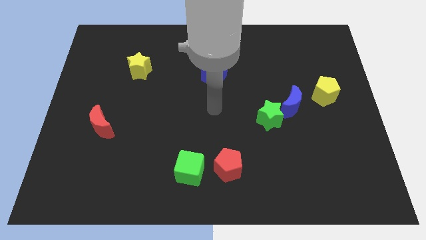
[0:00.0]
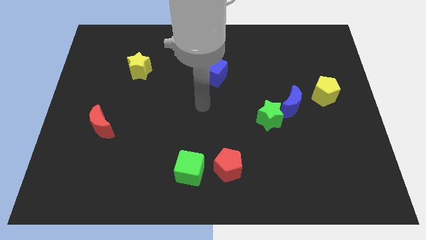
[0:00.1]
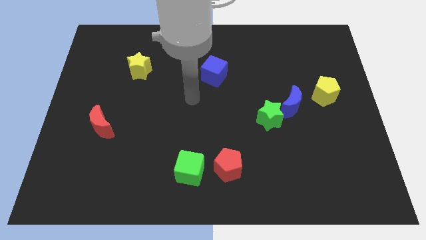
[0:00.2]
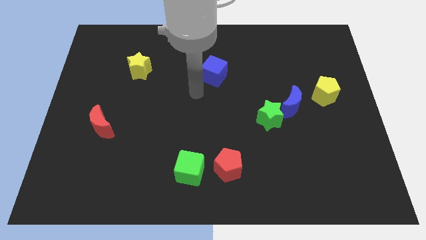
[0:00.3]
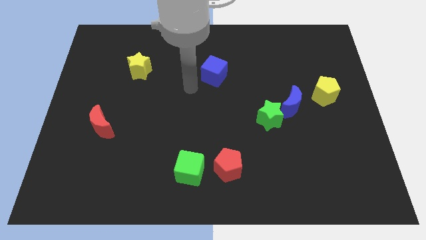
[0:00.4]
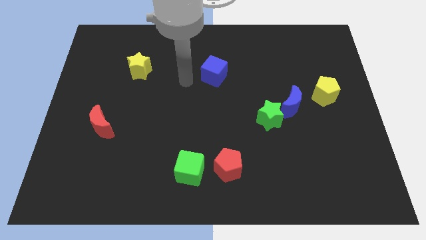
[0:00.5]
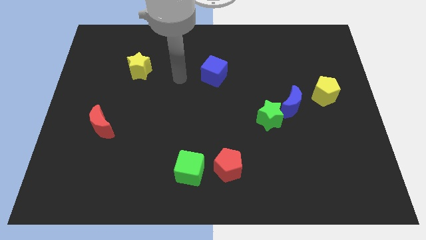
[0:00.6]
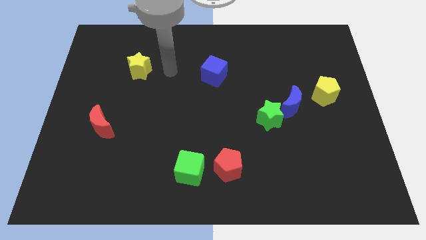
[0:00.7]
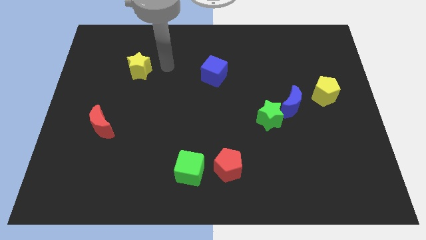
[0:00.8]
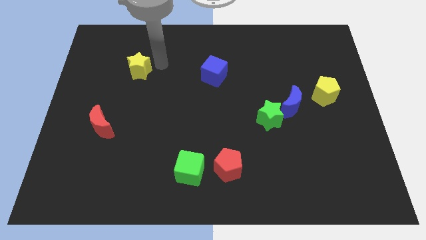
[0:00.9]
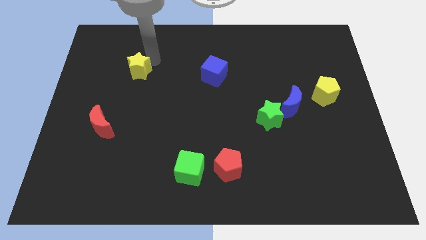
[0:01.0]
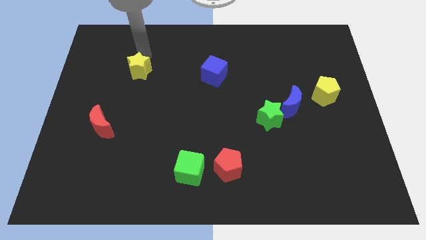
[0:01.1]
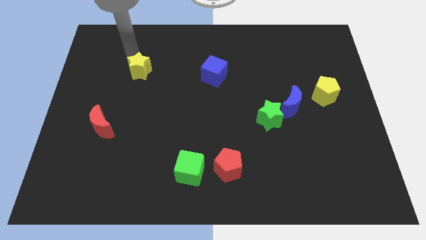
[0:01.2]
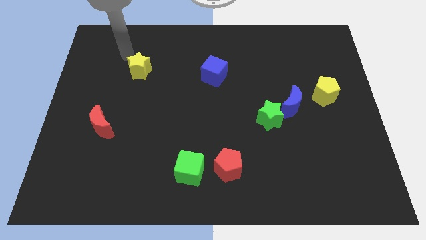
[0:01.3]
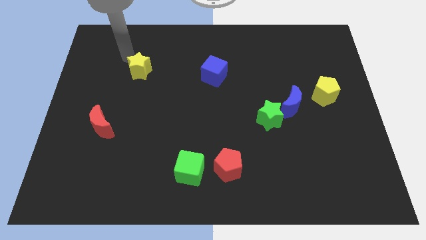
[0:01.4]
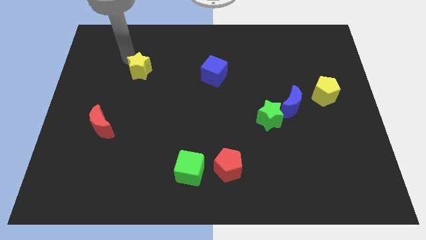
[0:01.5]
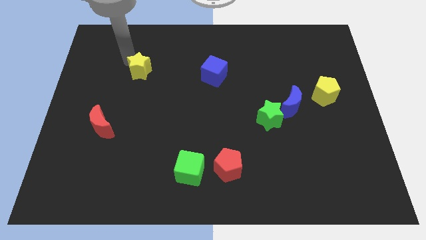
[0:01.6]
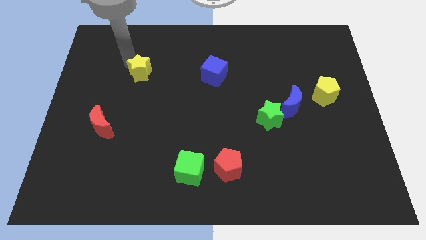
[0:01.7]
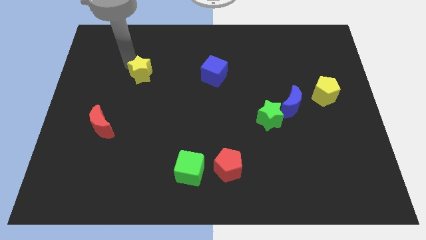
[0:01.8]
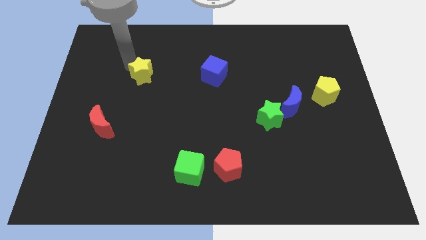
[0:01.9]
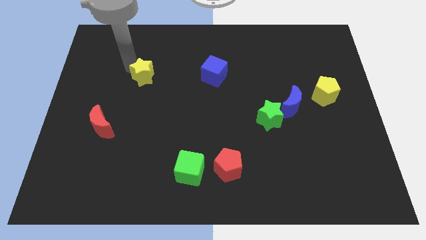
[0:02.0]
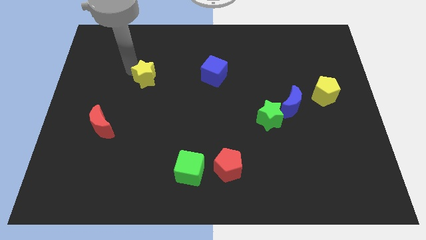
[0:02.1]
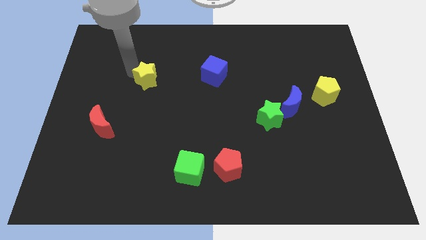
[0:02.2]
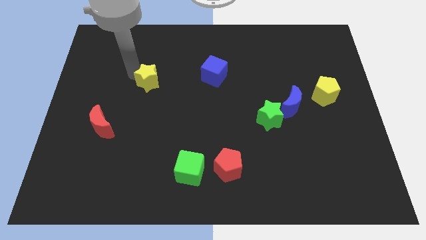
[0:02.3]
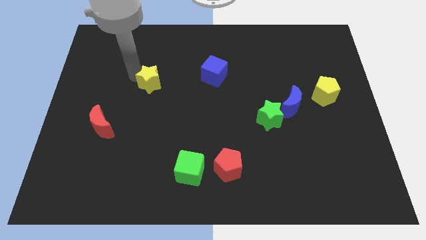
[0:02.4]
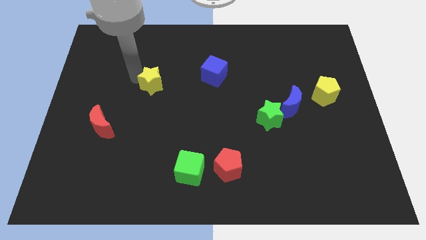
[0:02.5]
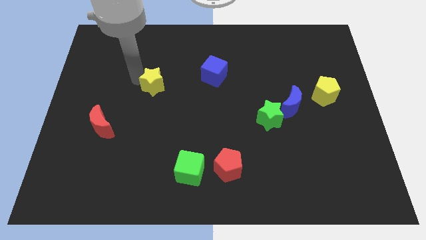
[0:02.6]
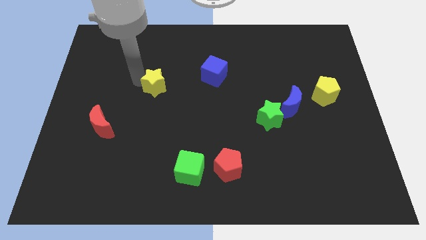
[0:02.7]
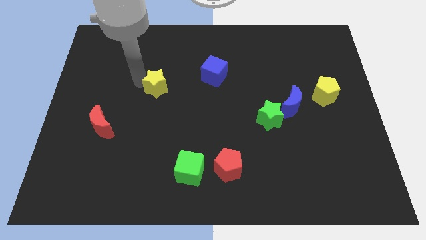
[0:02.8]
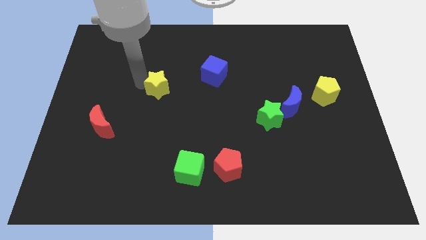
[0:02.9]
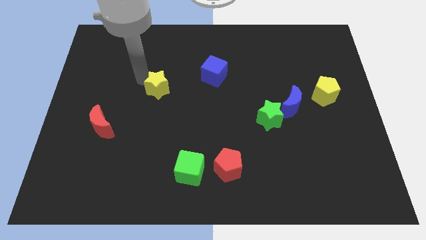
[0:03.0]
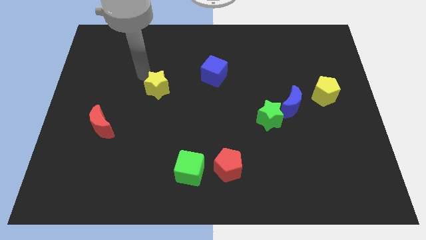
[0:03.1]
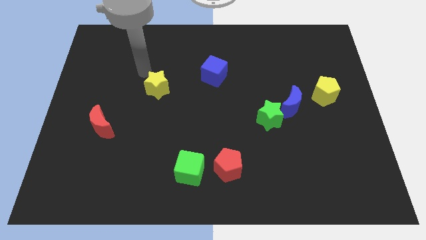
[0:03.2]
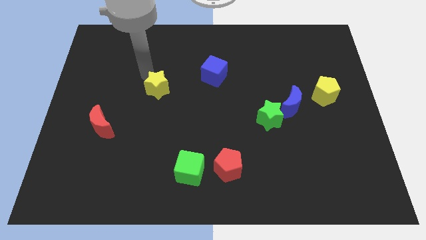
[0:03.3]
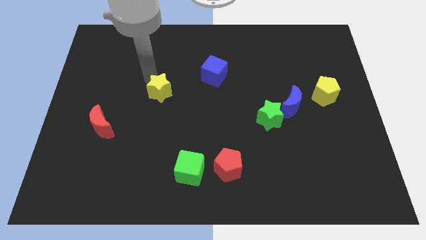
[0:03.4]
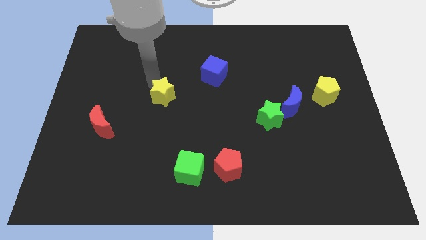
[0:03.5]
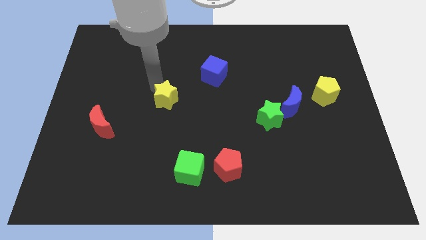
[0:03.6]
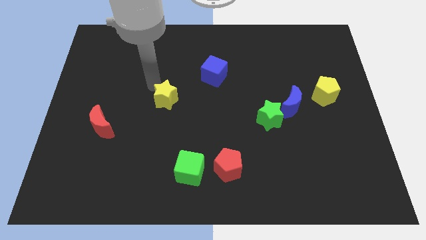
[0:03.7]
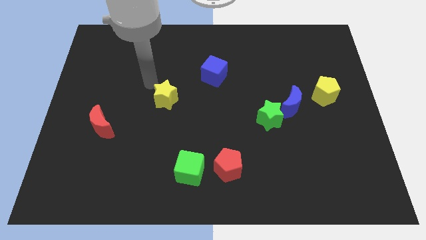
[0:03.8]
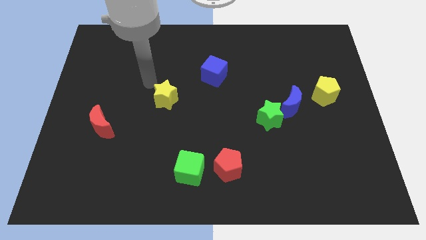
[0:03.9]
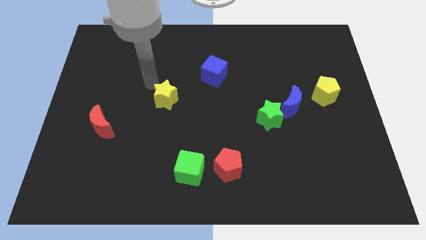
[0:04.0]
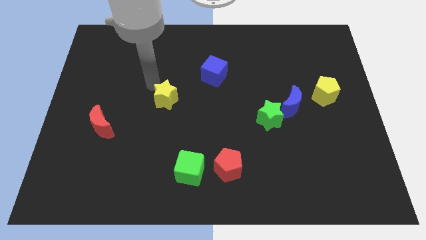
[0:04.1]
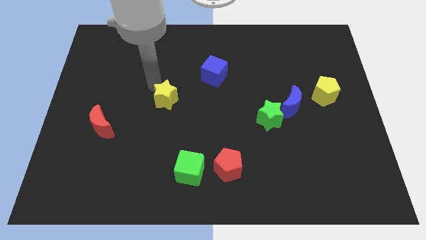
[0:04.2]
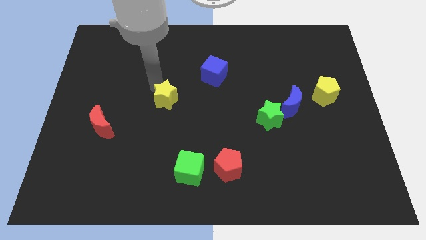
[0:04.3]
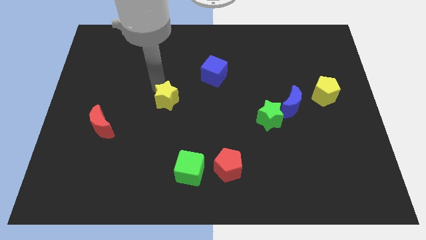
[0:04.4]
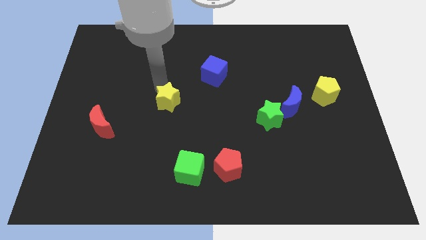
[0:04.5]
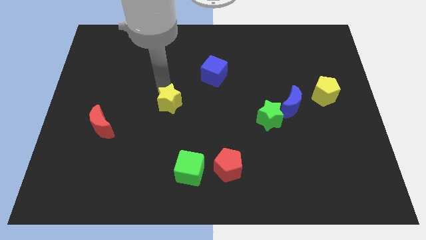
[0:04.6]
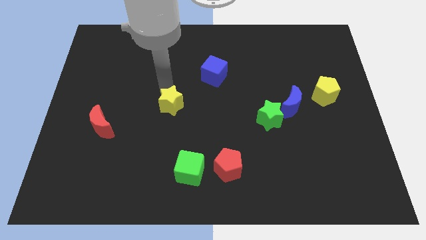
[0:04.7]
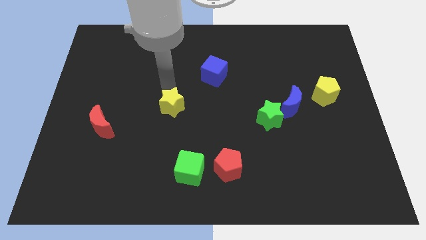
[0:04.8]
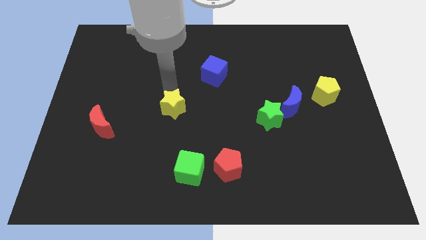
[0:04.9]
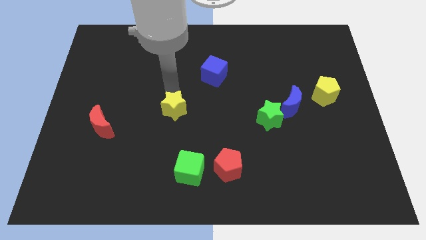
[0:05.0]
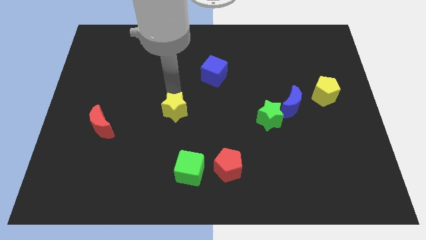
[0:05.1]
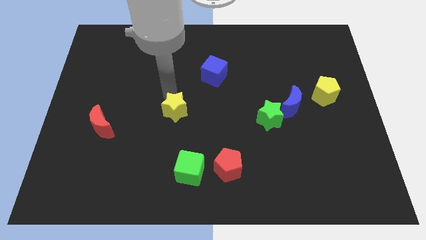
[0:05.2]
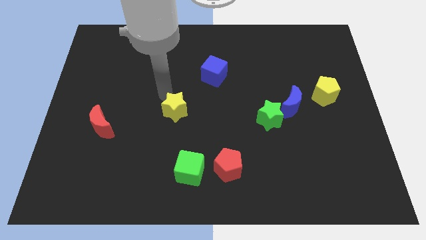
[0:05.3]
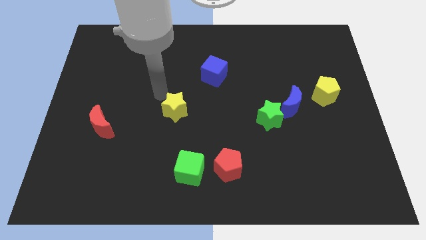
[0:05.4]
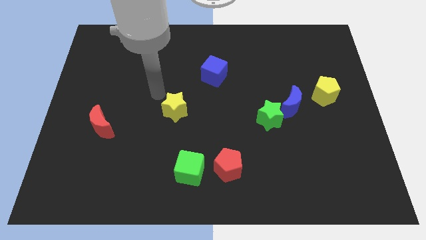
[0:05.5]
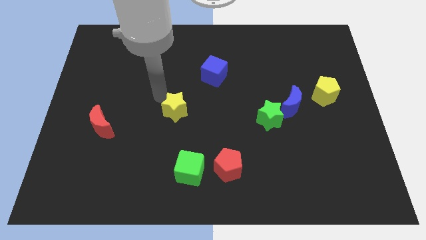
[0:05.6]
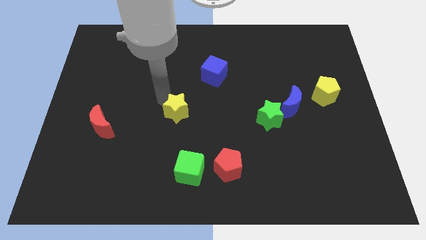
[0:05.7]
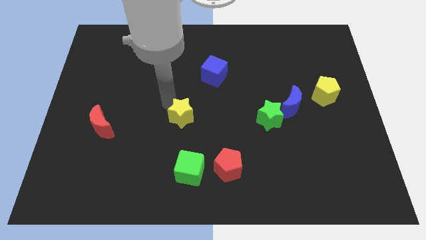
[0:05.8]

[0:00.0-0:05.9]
move the yellow star to the top side of the green cube

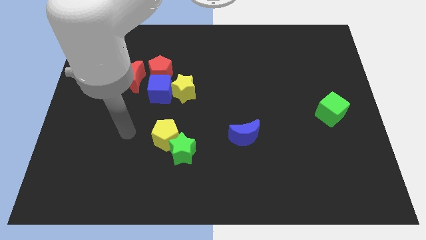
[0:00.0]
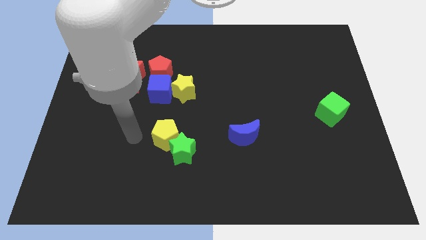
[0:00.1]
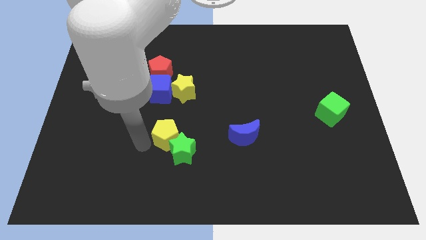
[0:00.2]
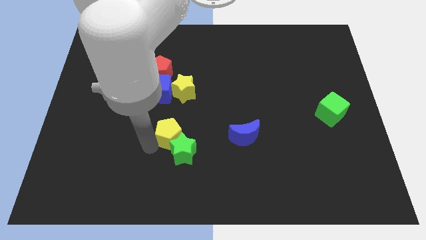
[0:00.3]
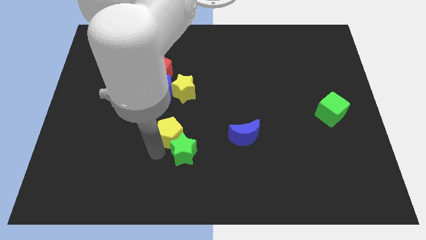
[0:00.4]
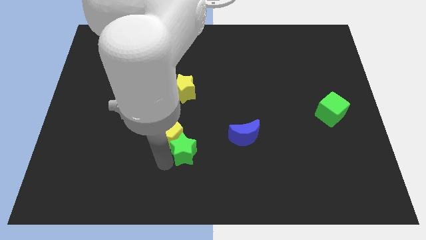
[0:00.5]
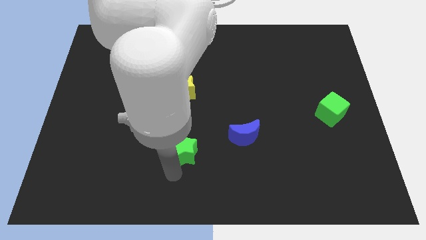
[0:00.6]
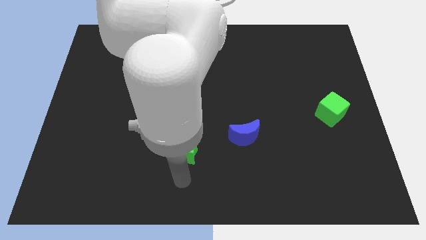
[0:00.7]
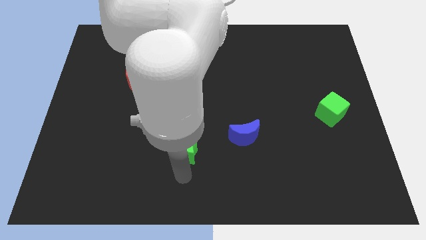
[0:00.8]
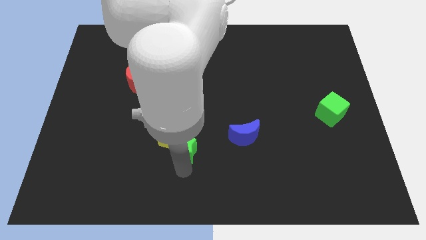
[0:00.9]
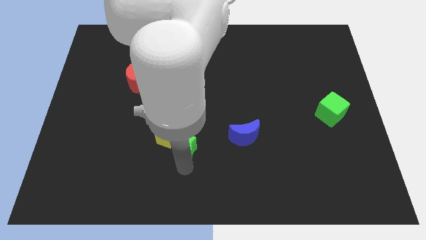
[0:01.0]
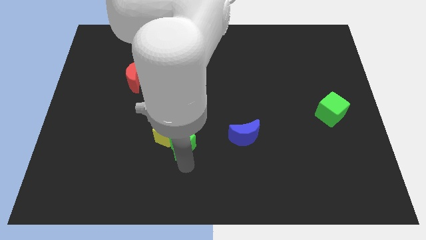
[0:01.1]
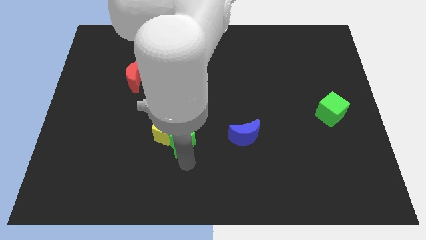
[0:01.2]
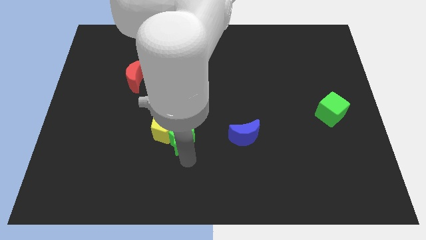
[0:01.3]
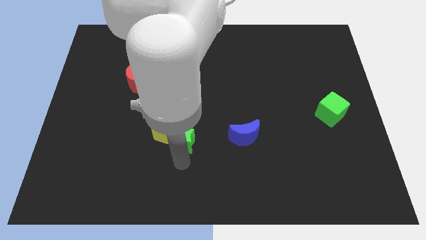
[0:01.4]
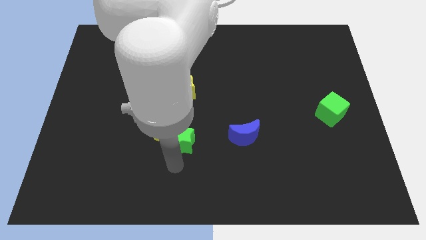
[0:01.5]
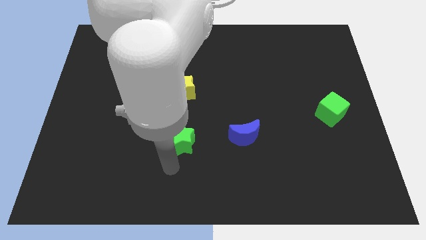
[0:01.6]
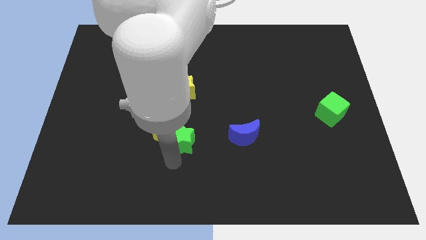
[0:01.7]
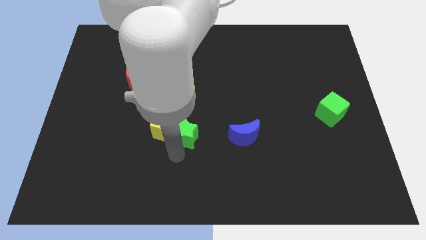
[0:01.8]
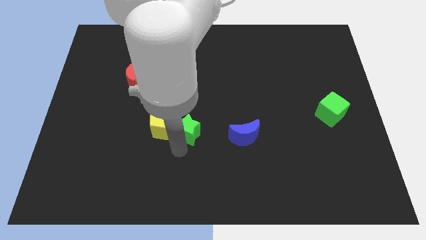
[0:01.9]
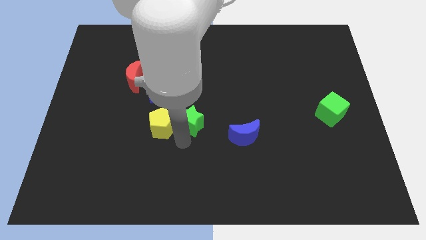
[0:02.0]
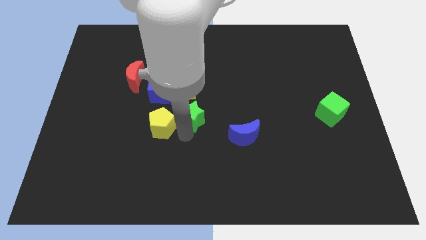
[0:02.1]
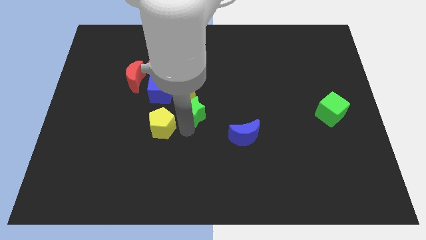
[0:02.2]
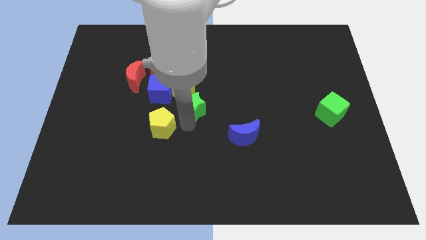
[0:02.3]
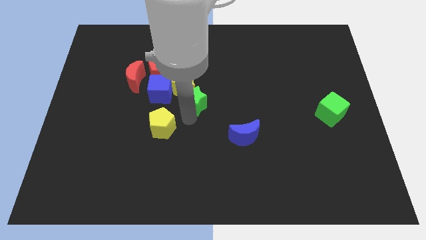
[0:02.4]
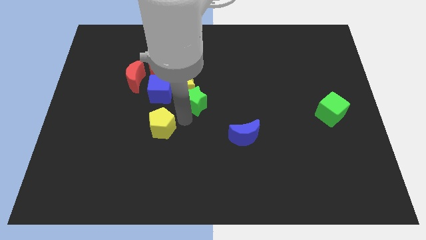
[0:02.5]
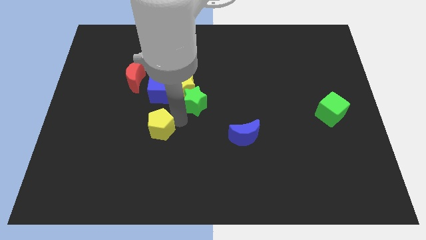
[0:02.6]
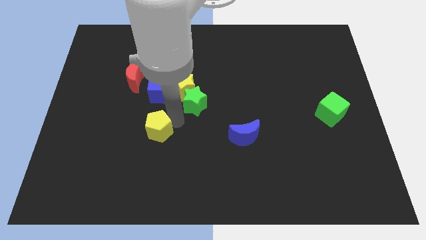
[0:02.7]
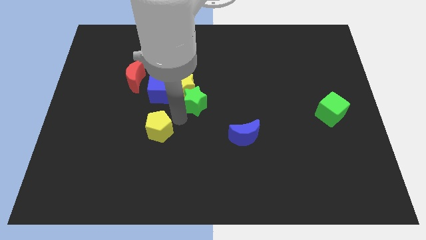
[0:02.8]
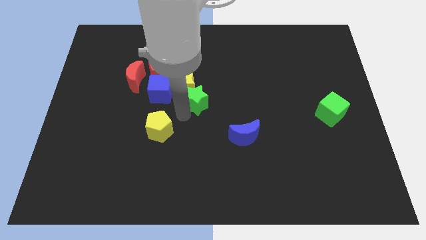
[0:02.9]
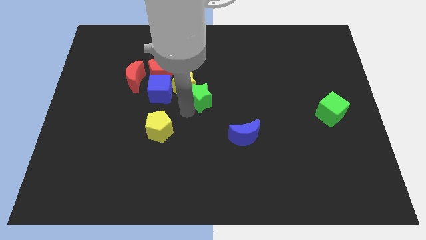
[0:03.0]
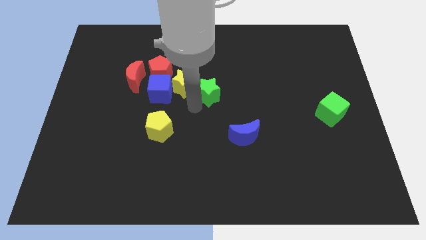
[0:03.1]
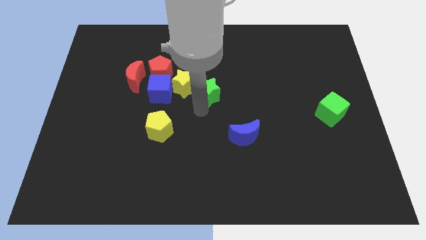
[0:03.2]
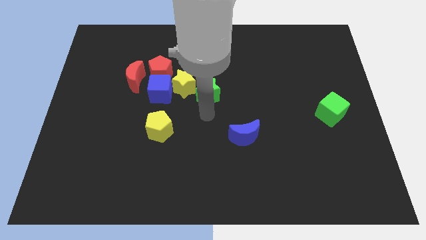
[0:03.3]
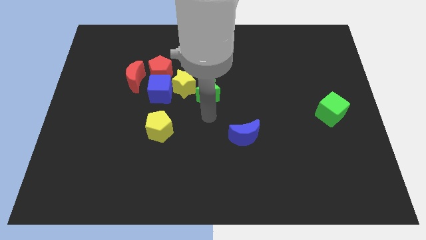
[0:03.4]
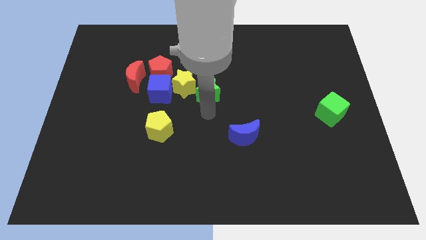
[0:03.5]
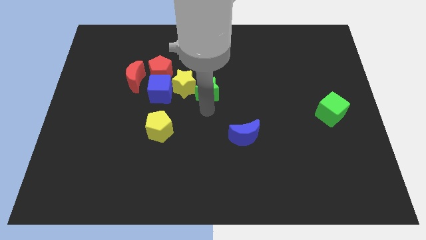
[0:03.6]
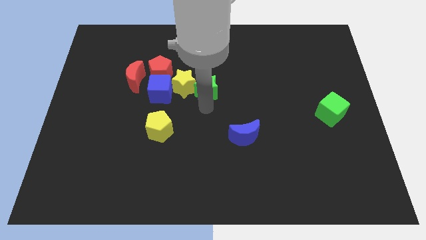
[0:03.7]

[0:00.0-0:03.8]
move the green star to the top right side of the yellow star
